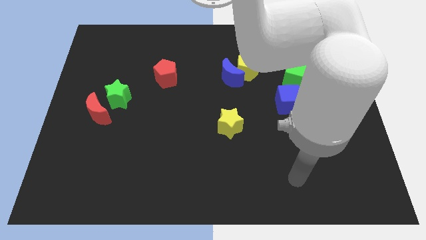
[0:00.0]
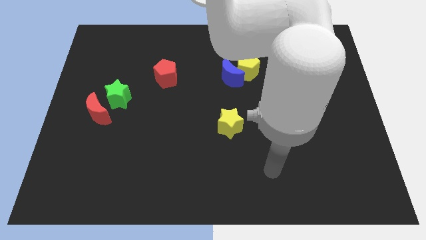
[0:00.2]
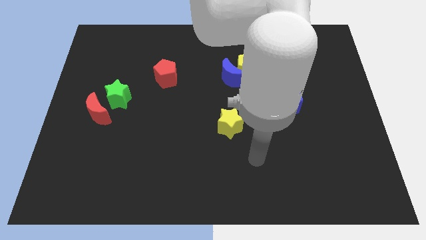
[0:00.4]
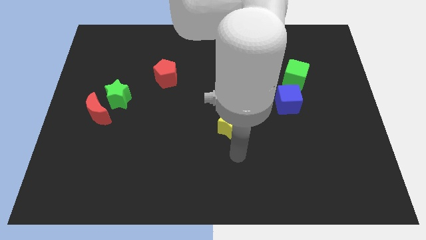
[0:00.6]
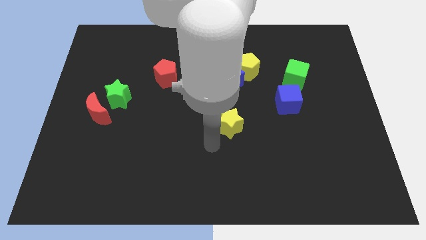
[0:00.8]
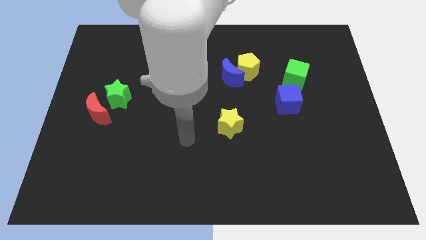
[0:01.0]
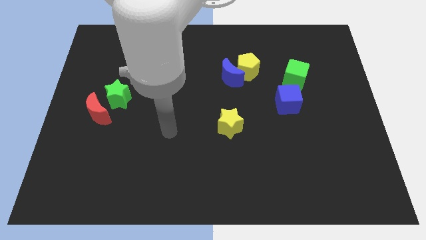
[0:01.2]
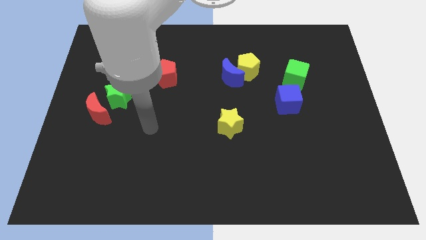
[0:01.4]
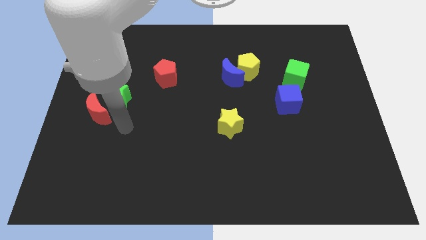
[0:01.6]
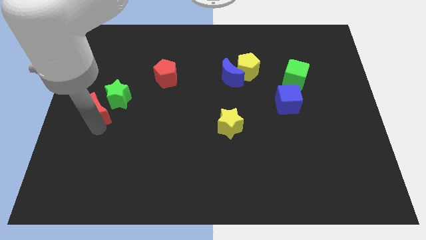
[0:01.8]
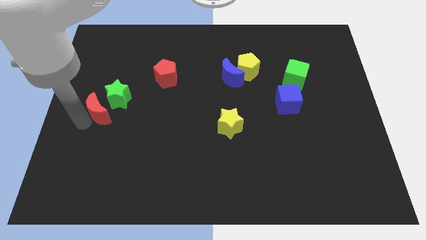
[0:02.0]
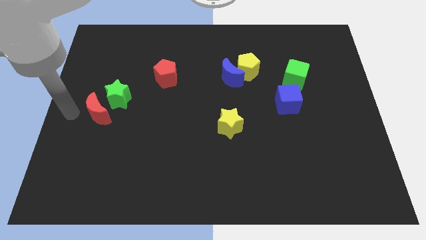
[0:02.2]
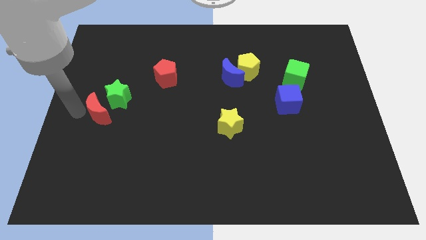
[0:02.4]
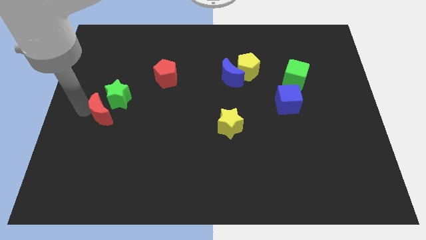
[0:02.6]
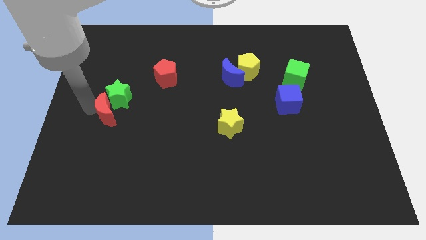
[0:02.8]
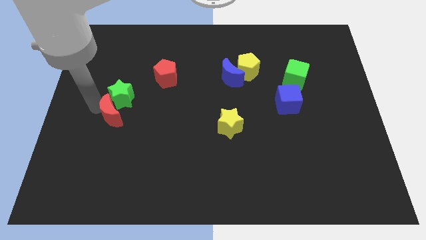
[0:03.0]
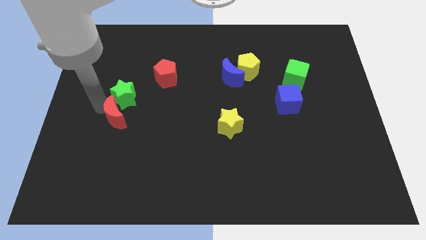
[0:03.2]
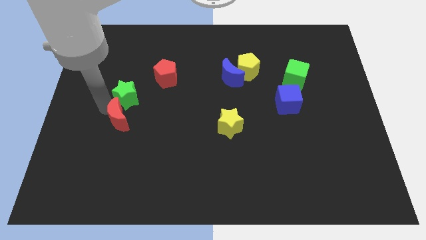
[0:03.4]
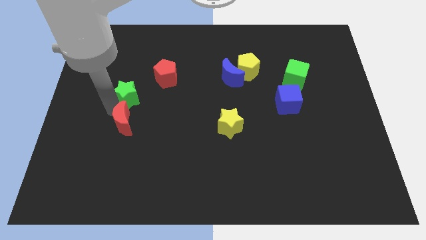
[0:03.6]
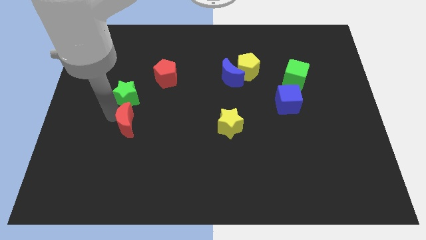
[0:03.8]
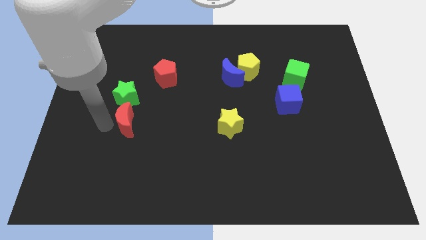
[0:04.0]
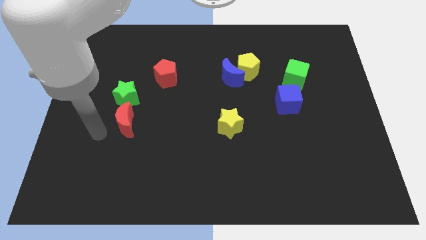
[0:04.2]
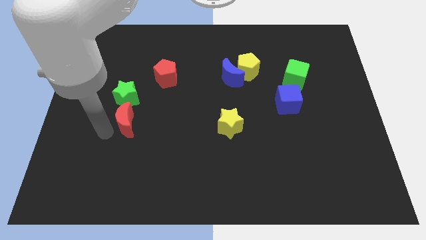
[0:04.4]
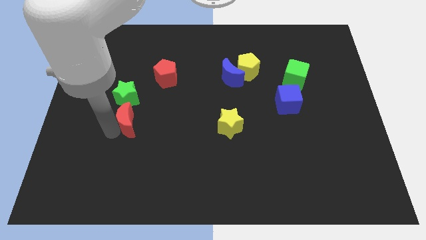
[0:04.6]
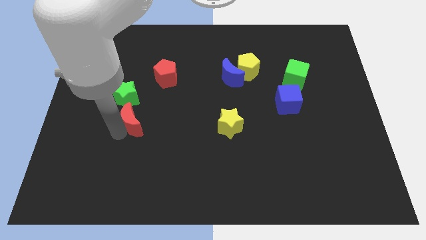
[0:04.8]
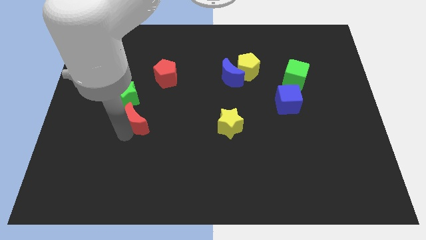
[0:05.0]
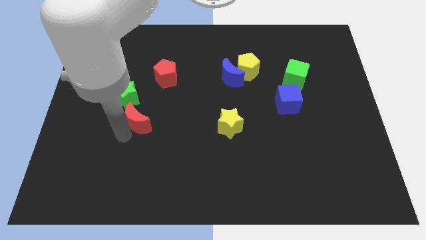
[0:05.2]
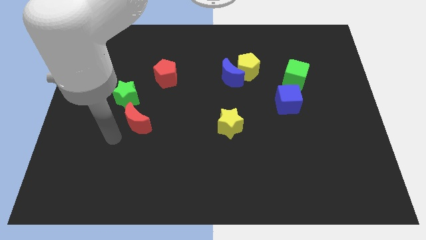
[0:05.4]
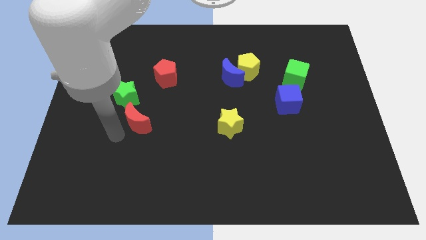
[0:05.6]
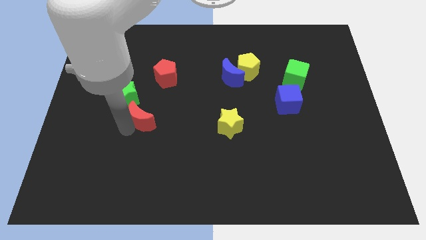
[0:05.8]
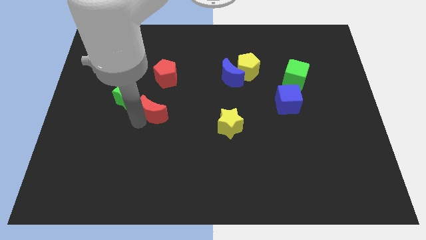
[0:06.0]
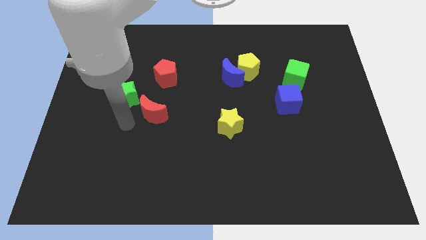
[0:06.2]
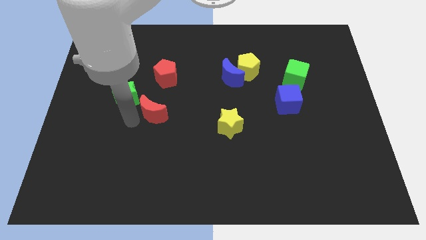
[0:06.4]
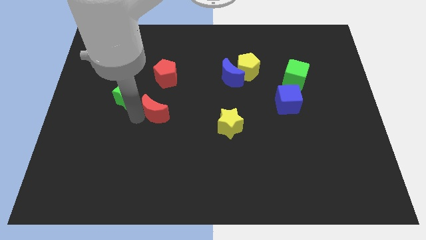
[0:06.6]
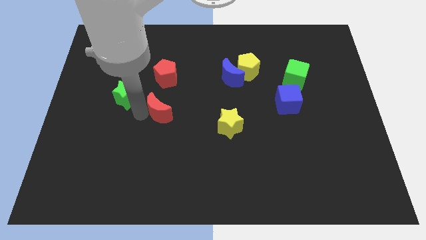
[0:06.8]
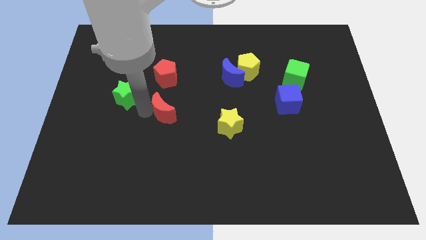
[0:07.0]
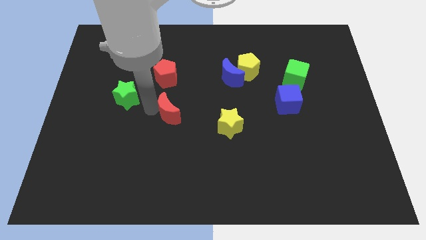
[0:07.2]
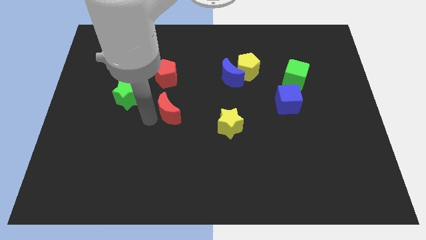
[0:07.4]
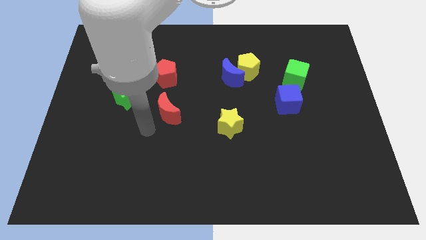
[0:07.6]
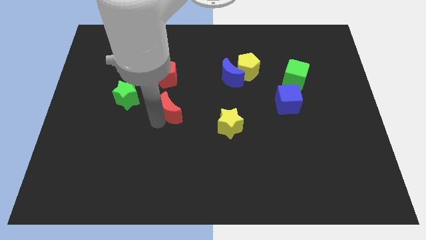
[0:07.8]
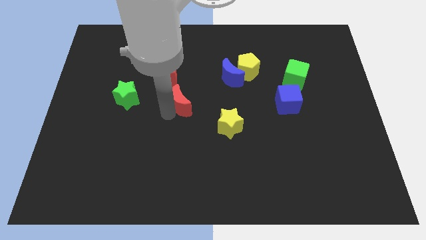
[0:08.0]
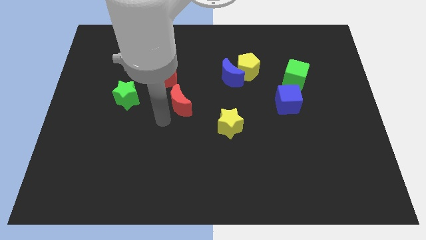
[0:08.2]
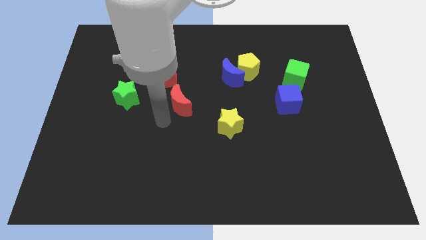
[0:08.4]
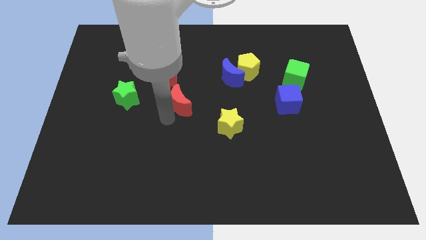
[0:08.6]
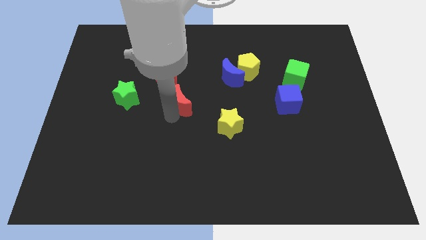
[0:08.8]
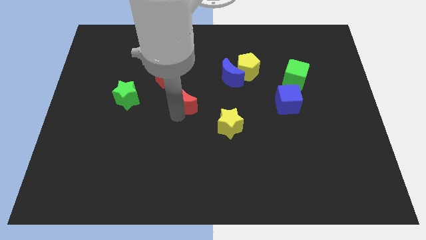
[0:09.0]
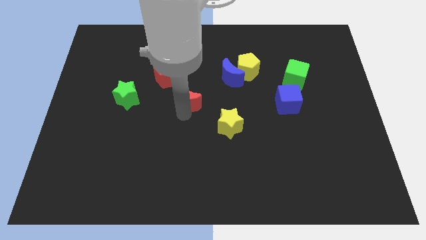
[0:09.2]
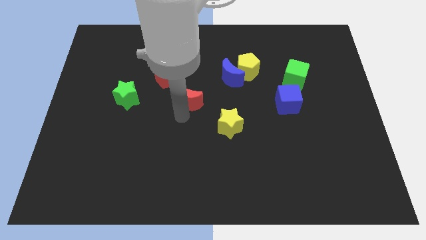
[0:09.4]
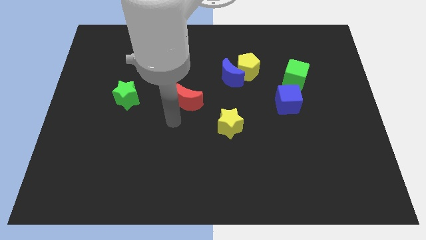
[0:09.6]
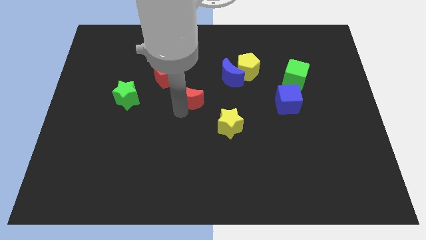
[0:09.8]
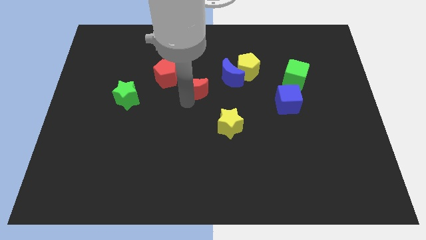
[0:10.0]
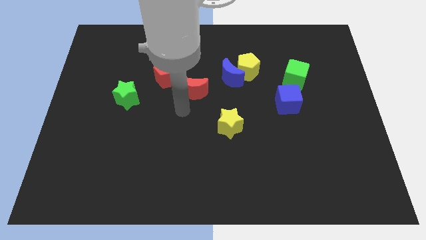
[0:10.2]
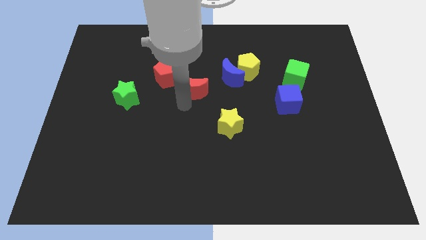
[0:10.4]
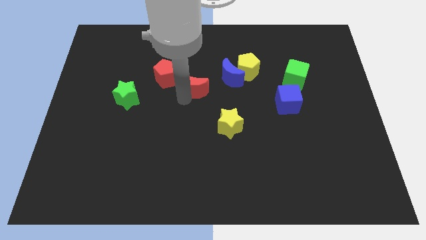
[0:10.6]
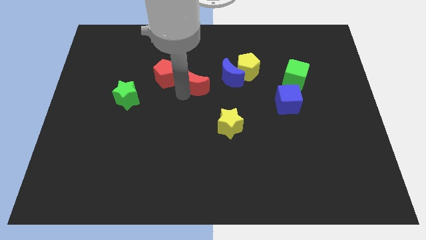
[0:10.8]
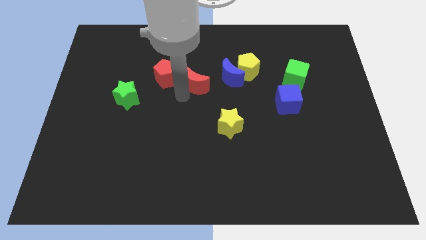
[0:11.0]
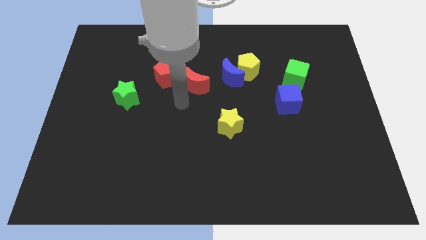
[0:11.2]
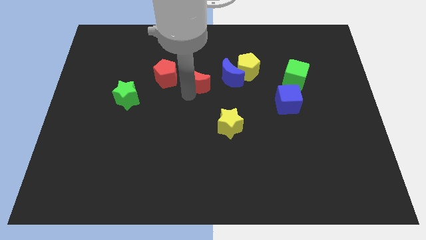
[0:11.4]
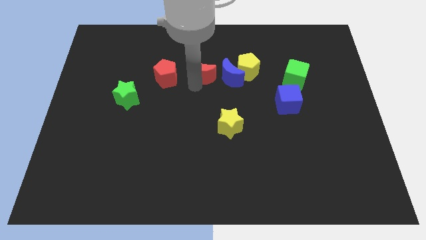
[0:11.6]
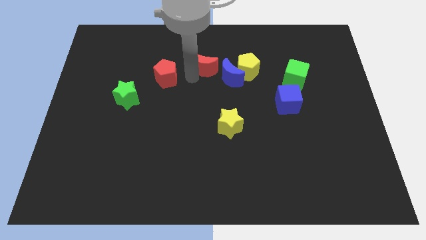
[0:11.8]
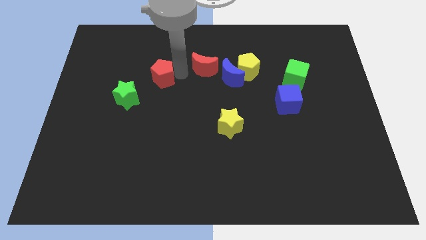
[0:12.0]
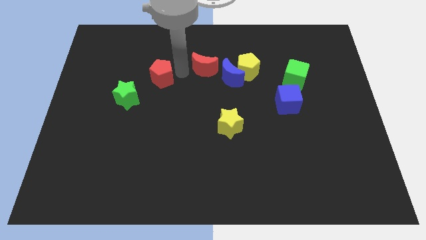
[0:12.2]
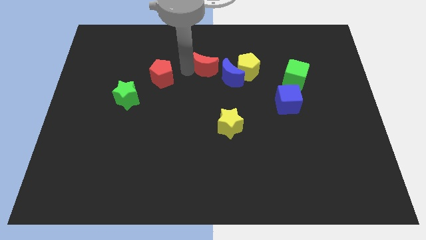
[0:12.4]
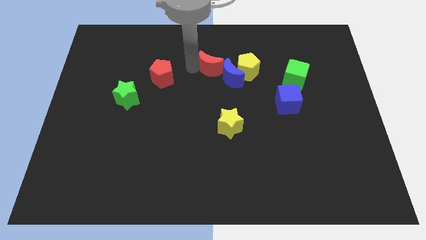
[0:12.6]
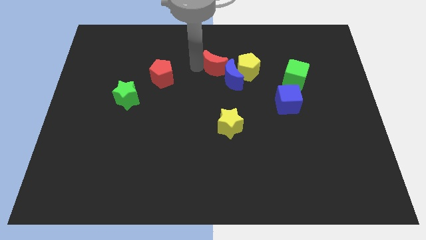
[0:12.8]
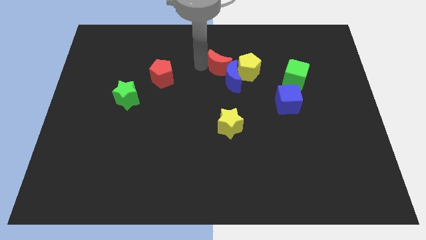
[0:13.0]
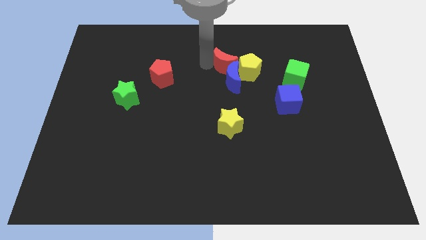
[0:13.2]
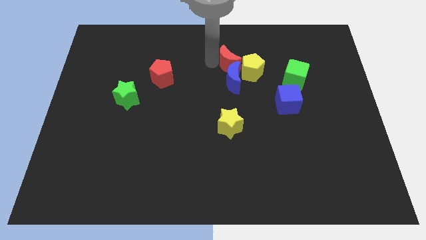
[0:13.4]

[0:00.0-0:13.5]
put the red moon towards the yellow pentagon
